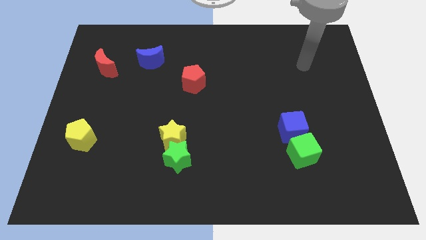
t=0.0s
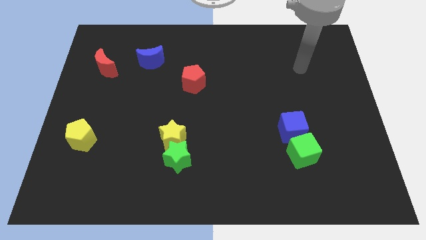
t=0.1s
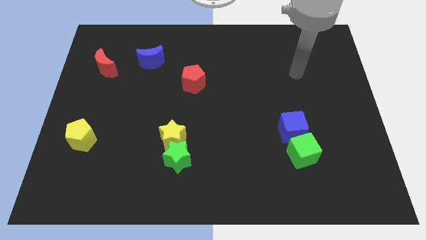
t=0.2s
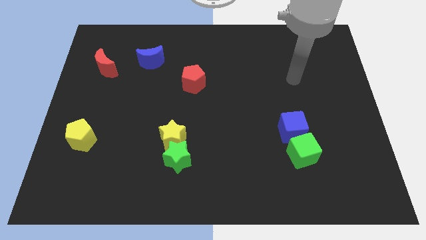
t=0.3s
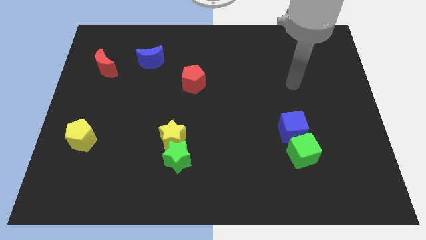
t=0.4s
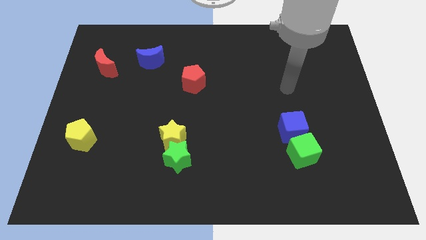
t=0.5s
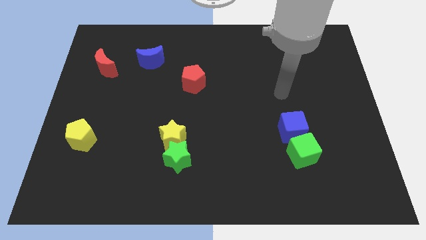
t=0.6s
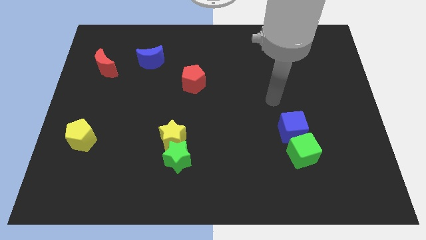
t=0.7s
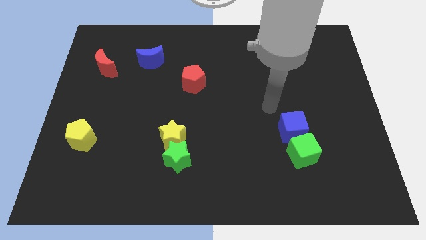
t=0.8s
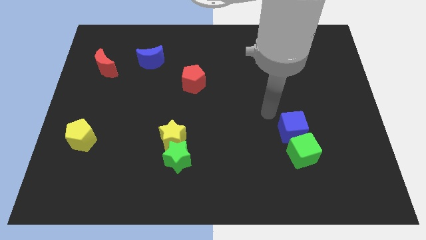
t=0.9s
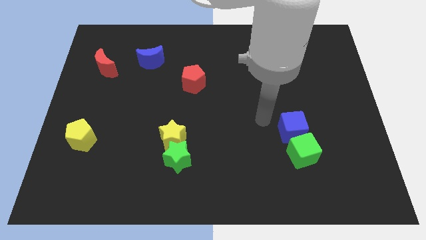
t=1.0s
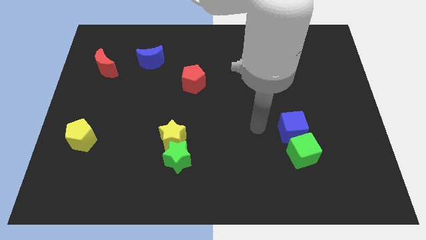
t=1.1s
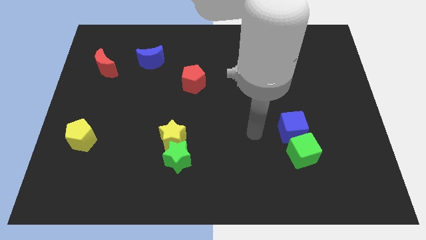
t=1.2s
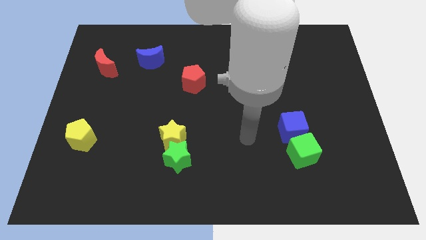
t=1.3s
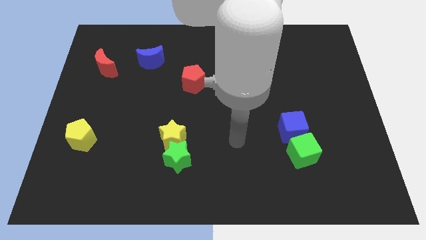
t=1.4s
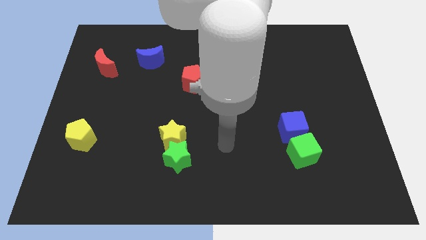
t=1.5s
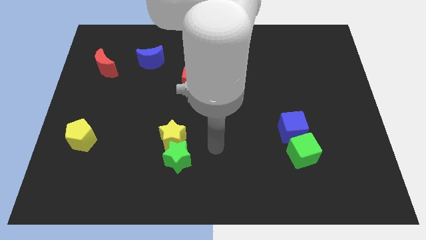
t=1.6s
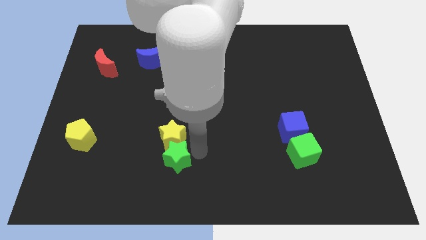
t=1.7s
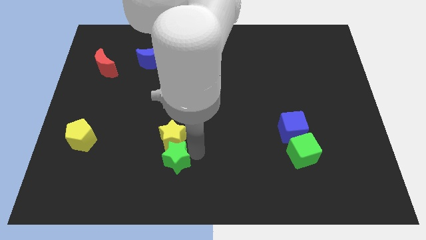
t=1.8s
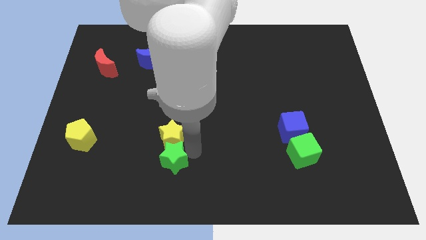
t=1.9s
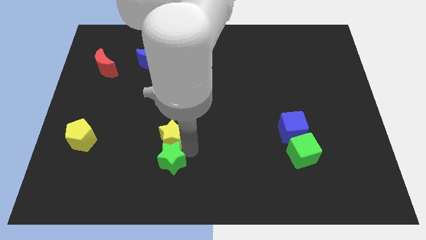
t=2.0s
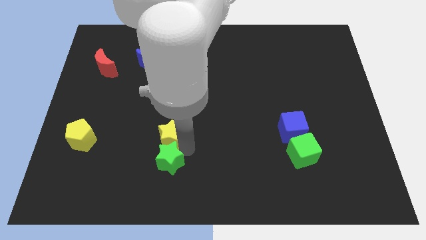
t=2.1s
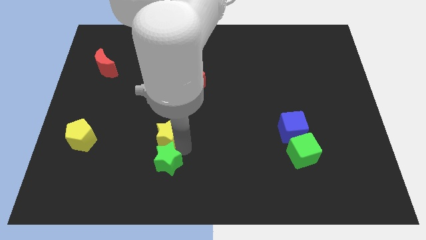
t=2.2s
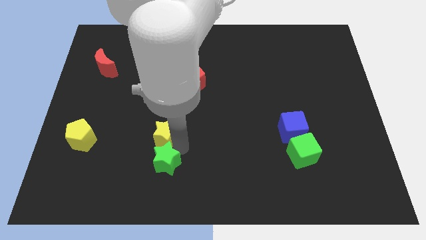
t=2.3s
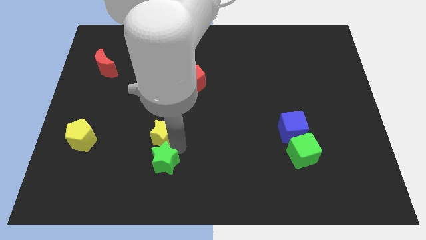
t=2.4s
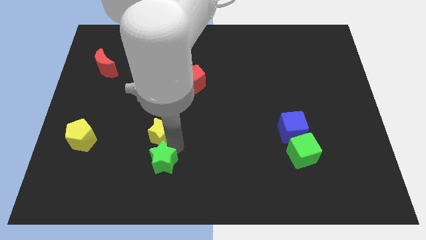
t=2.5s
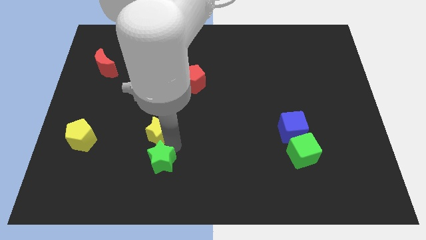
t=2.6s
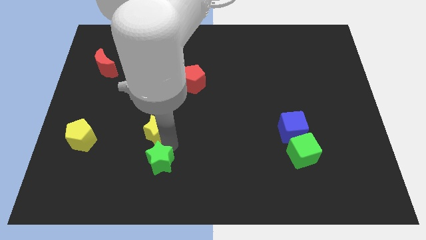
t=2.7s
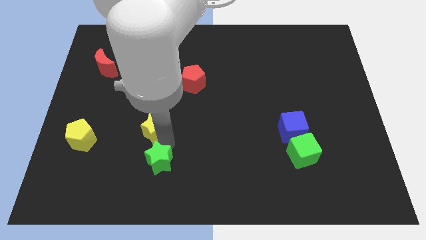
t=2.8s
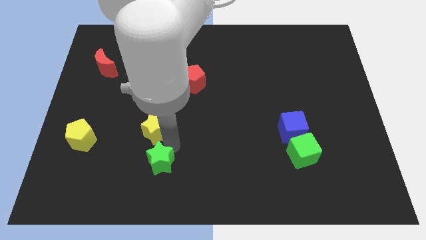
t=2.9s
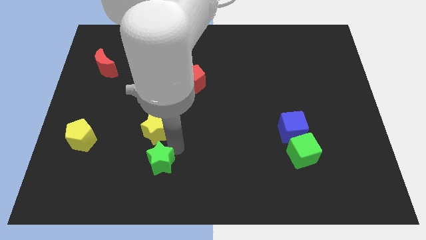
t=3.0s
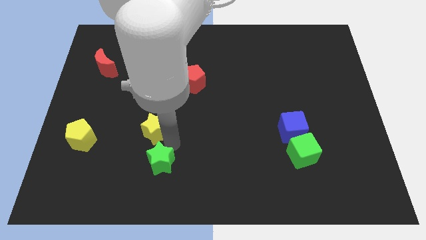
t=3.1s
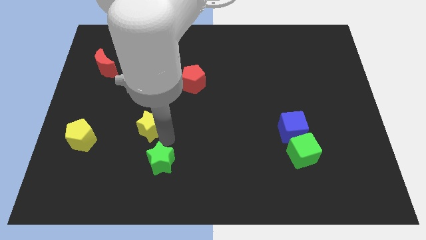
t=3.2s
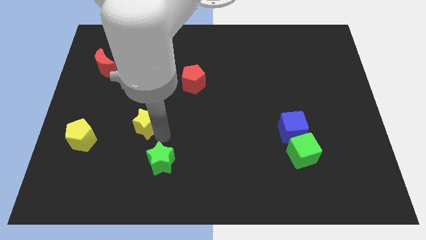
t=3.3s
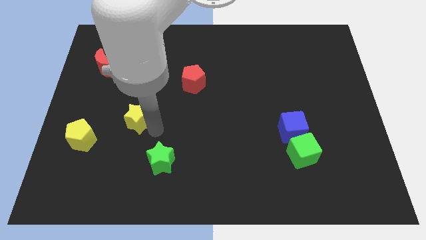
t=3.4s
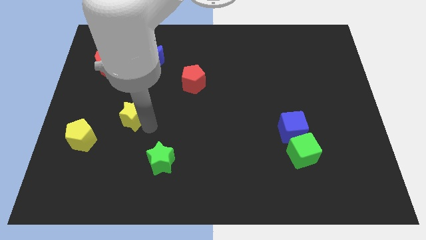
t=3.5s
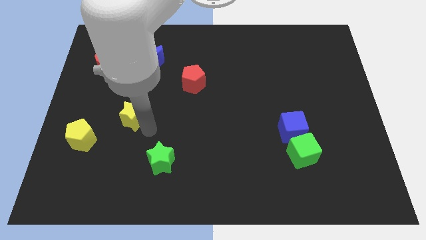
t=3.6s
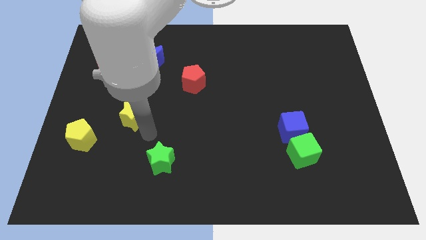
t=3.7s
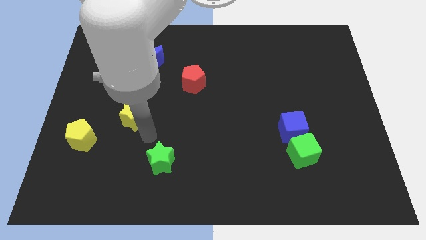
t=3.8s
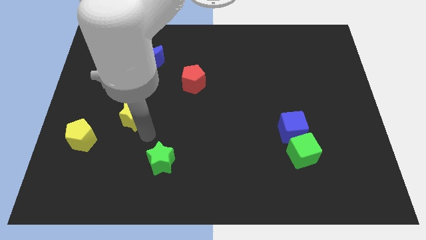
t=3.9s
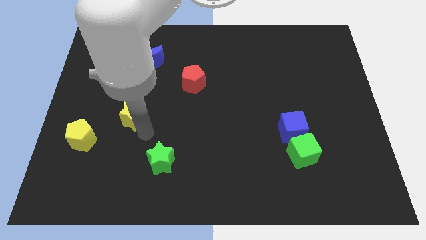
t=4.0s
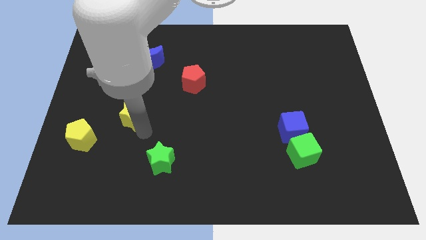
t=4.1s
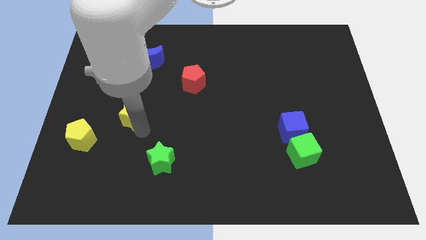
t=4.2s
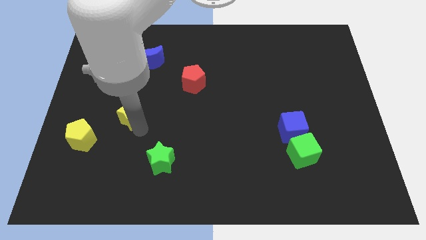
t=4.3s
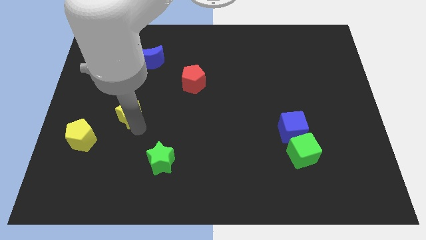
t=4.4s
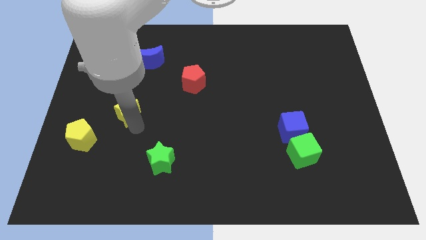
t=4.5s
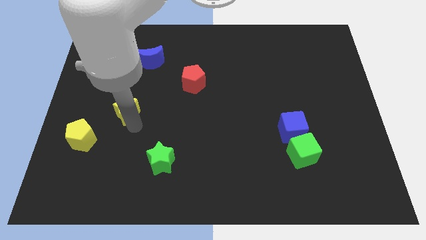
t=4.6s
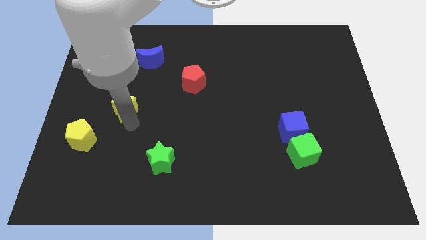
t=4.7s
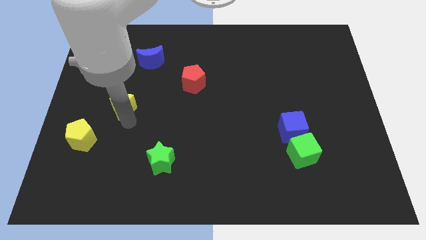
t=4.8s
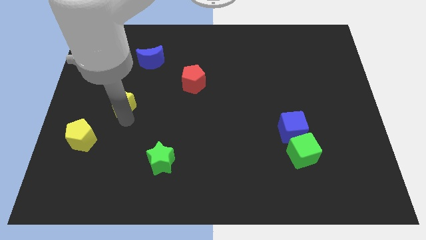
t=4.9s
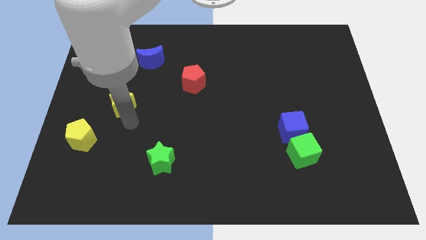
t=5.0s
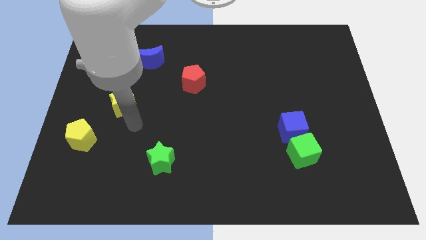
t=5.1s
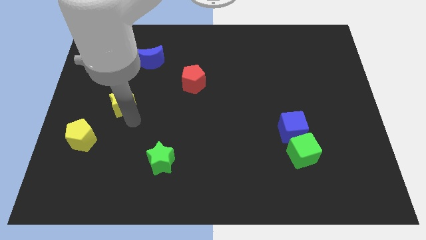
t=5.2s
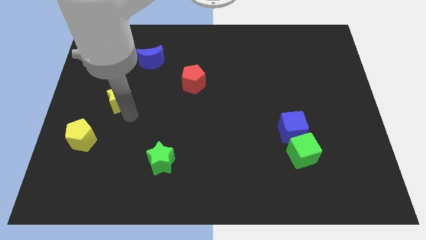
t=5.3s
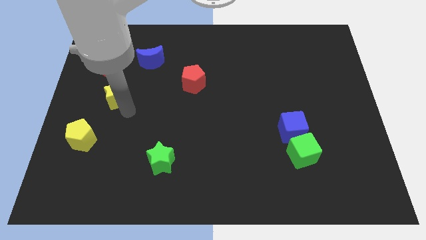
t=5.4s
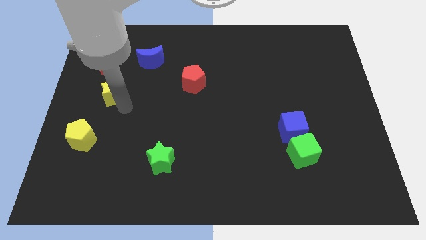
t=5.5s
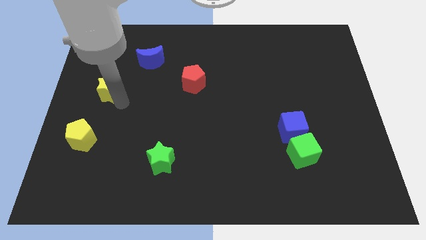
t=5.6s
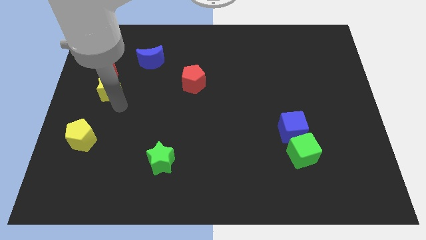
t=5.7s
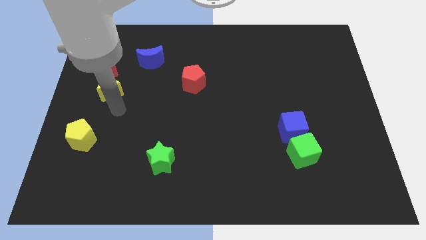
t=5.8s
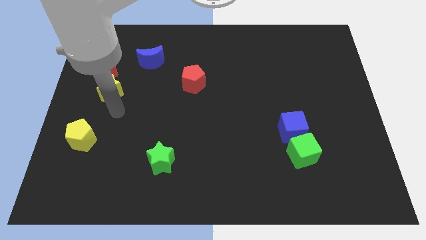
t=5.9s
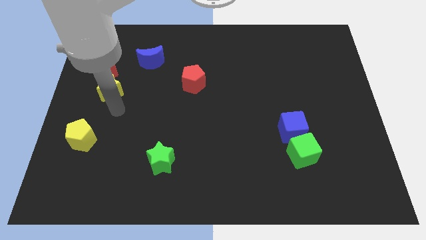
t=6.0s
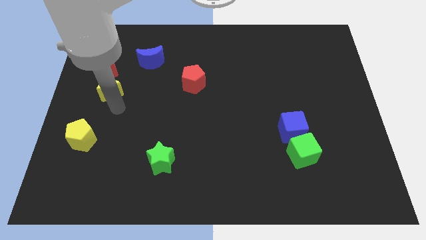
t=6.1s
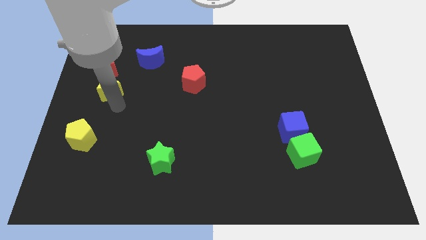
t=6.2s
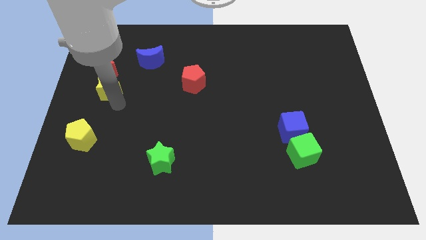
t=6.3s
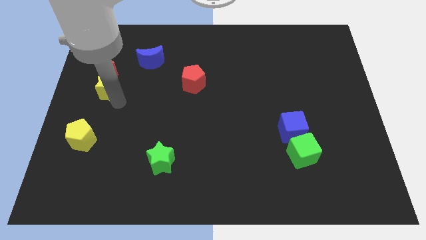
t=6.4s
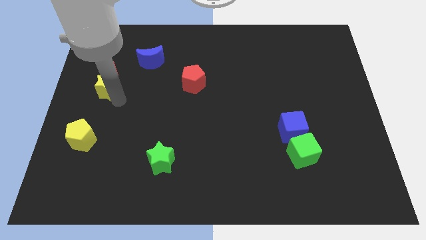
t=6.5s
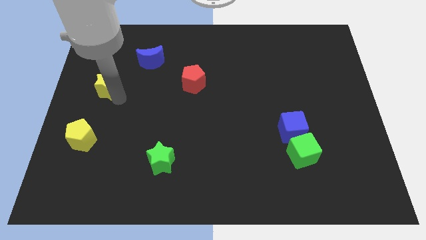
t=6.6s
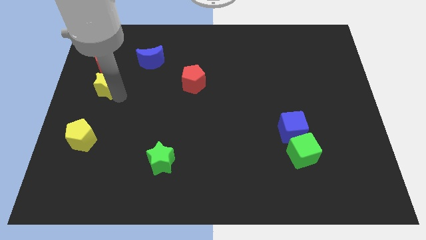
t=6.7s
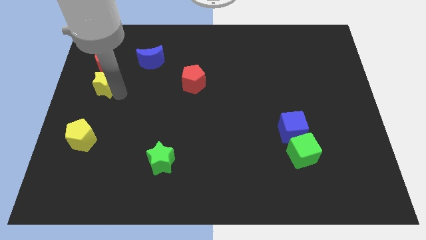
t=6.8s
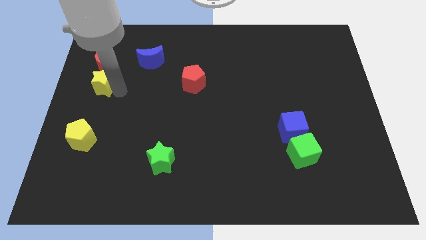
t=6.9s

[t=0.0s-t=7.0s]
push the yellow star towards the red moon
